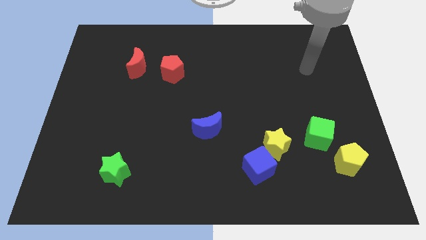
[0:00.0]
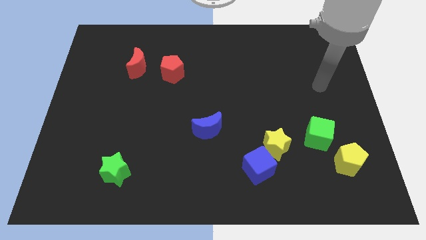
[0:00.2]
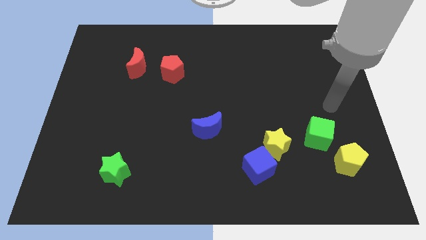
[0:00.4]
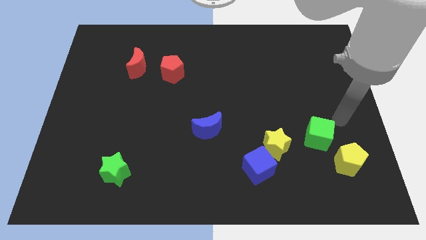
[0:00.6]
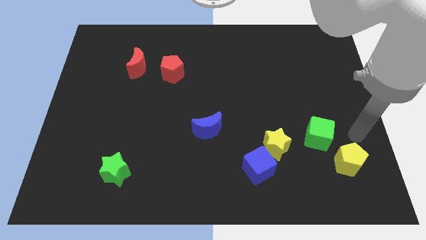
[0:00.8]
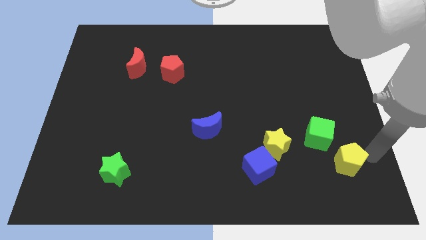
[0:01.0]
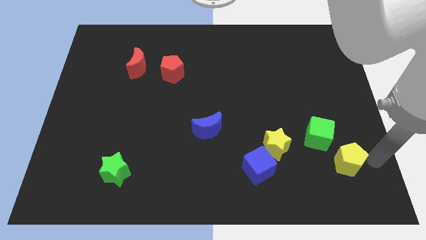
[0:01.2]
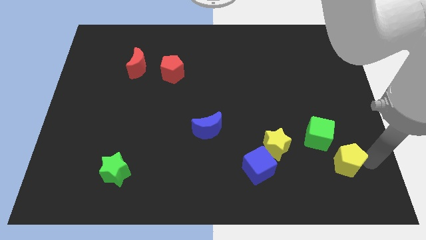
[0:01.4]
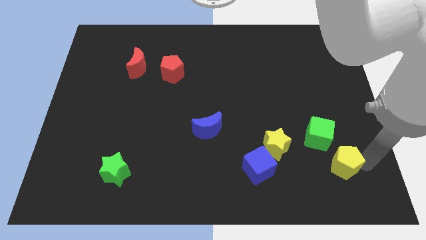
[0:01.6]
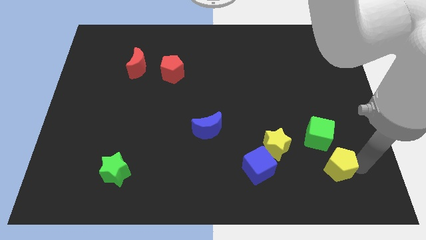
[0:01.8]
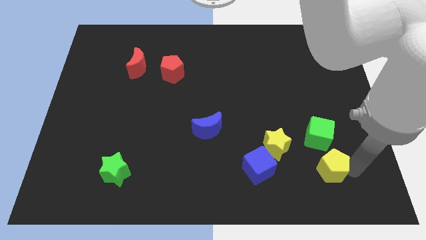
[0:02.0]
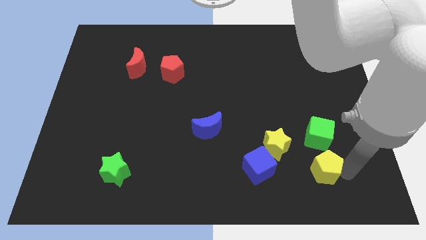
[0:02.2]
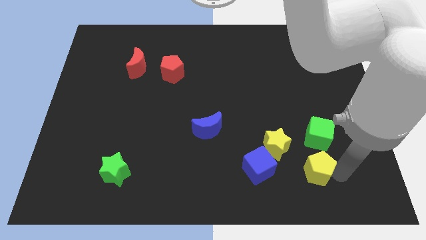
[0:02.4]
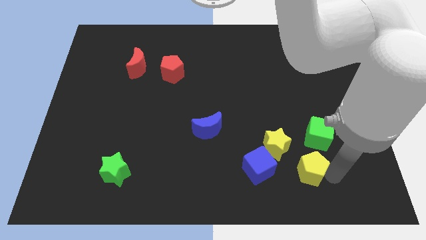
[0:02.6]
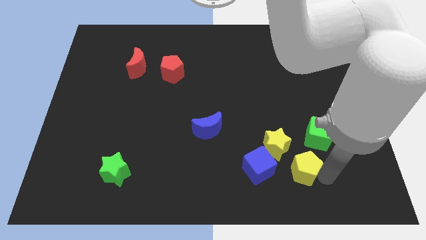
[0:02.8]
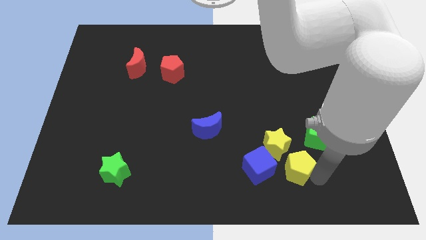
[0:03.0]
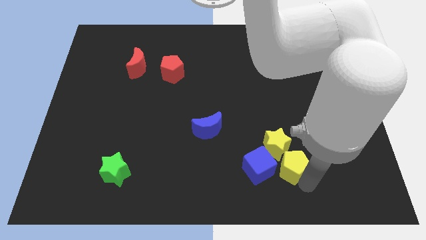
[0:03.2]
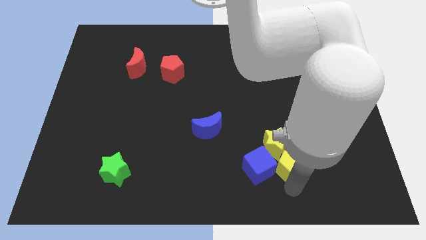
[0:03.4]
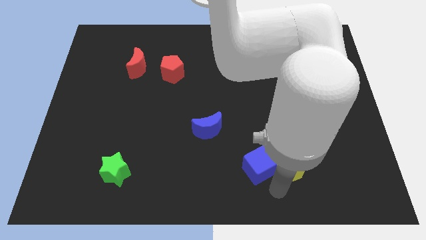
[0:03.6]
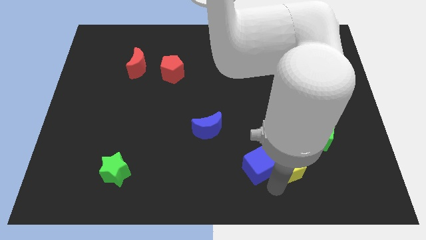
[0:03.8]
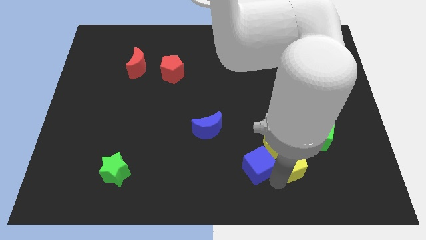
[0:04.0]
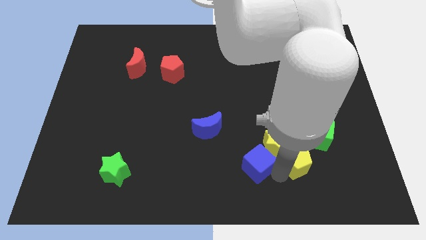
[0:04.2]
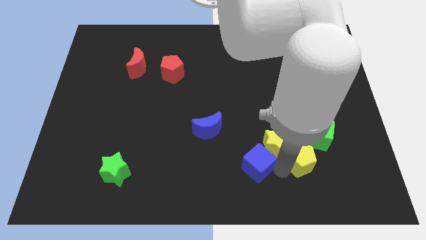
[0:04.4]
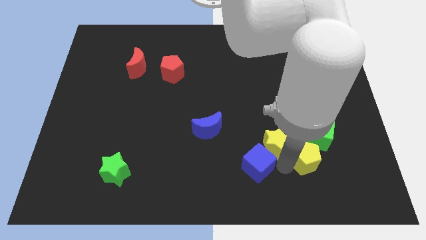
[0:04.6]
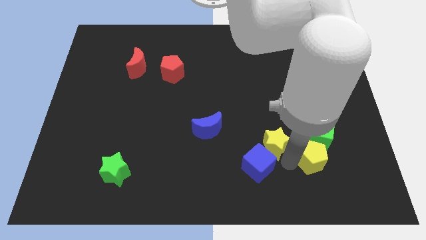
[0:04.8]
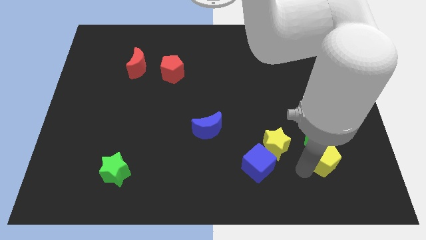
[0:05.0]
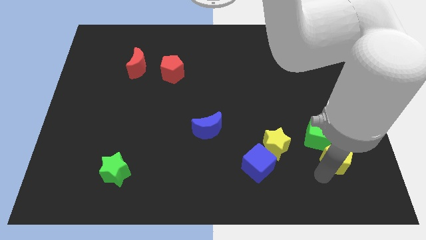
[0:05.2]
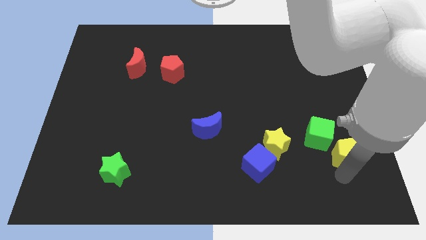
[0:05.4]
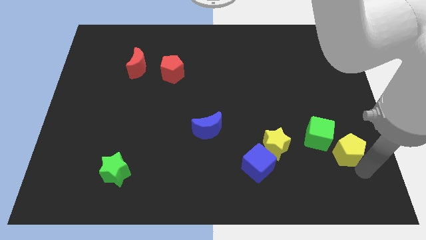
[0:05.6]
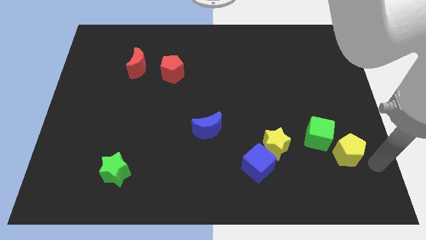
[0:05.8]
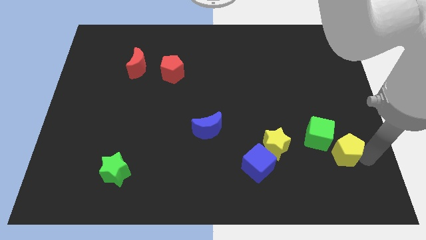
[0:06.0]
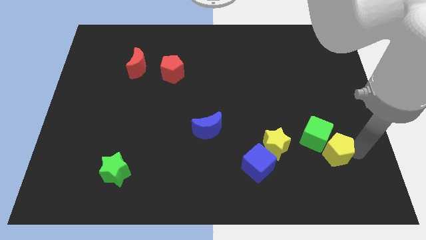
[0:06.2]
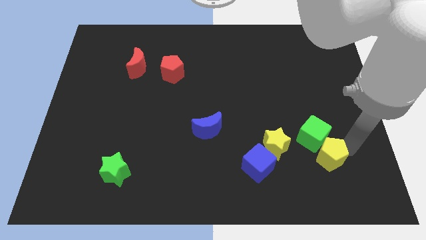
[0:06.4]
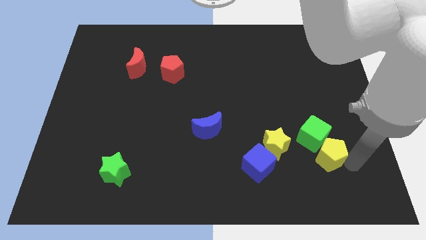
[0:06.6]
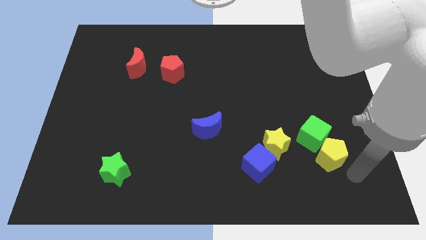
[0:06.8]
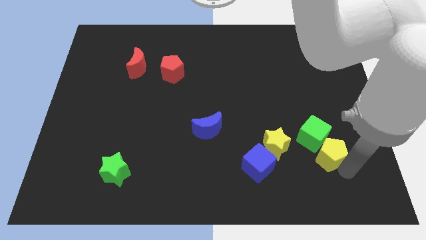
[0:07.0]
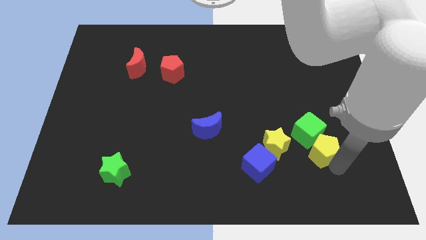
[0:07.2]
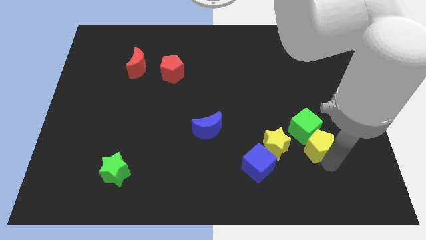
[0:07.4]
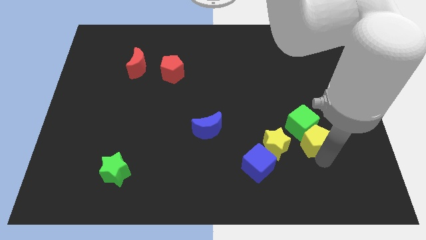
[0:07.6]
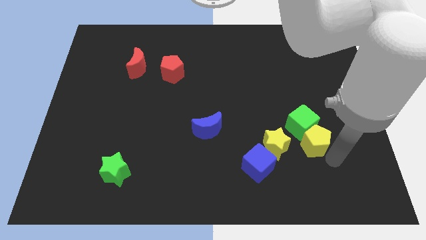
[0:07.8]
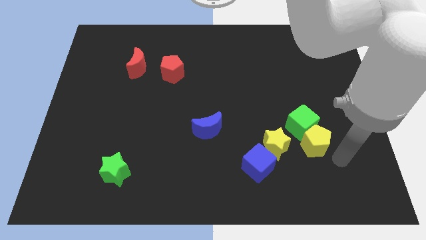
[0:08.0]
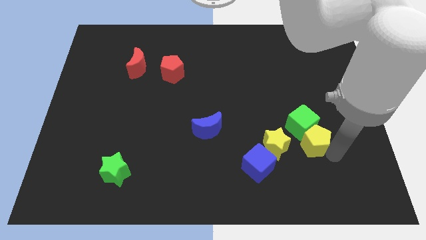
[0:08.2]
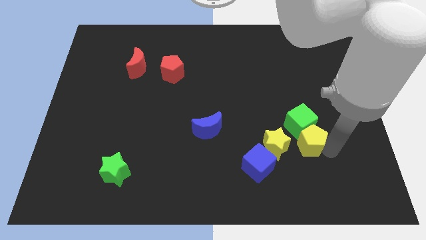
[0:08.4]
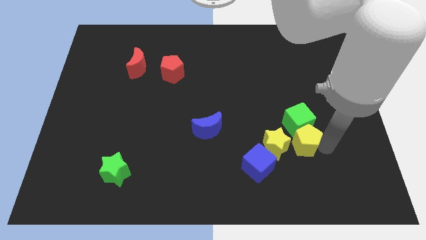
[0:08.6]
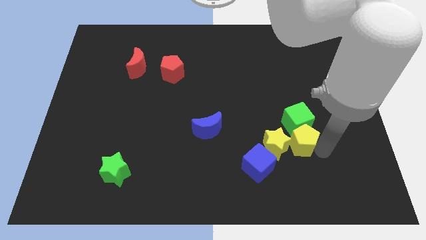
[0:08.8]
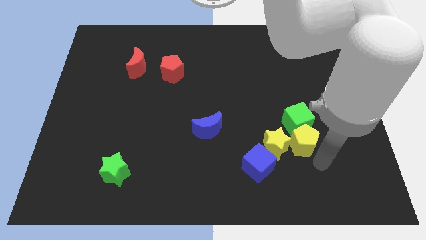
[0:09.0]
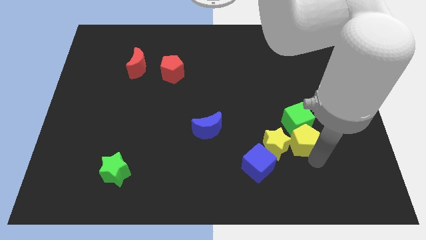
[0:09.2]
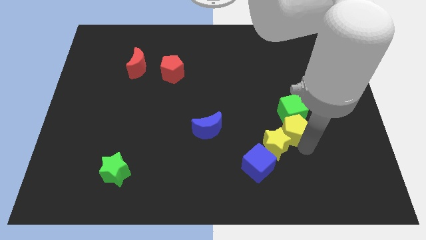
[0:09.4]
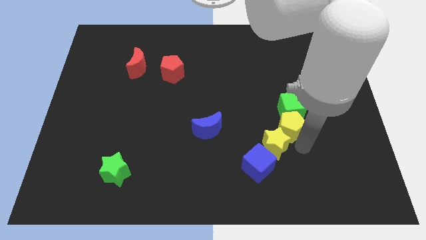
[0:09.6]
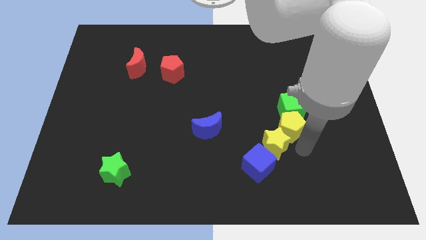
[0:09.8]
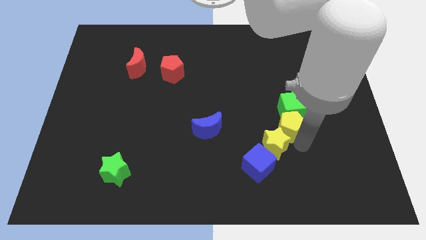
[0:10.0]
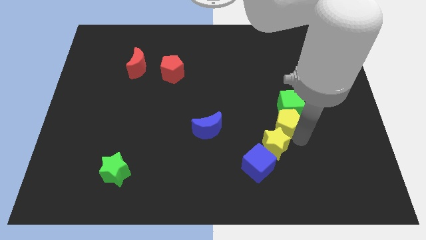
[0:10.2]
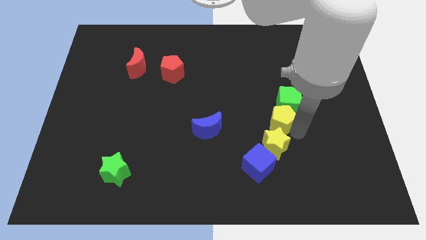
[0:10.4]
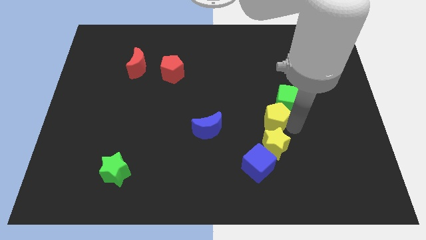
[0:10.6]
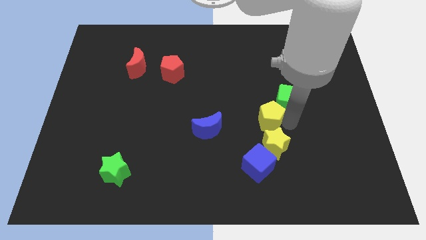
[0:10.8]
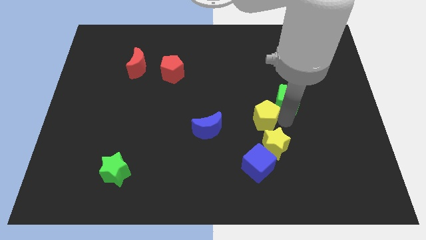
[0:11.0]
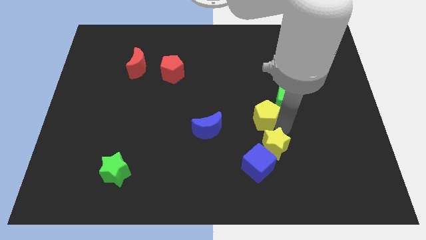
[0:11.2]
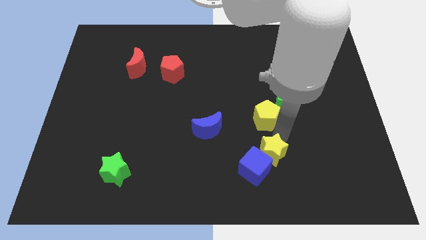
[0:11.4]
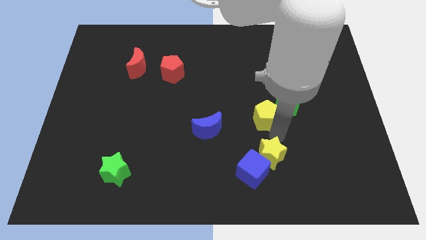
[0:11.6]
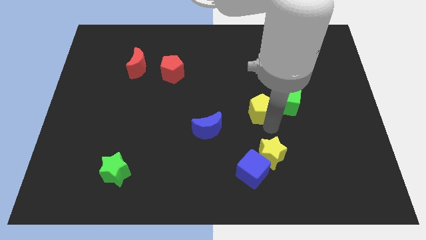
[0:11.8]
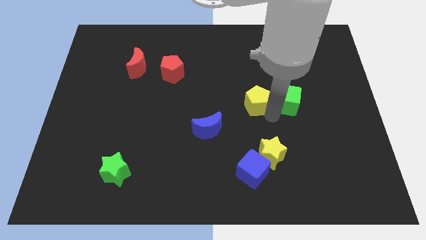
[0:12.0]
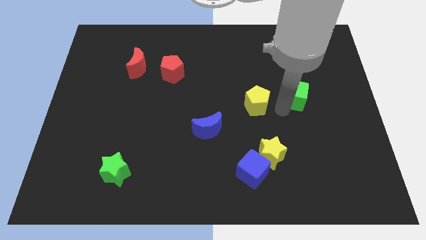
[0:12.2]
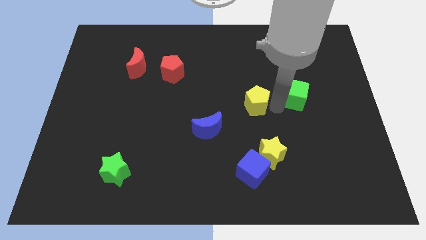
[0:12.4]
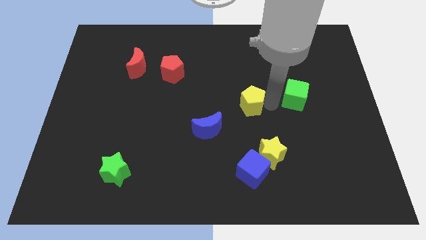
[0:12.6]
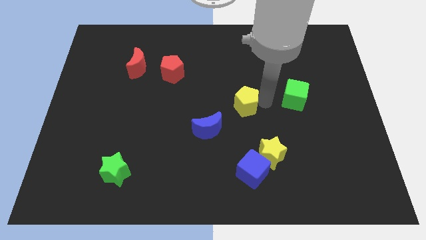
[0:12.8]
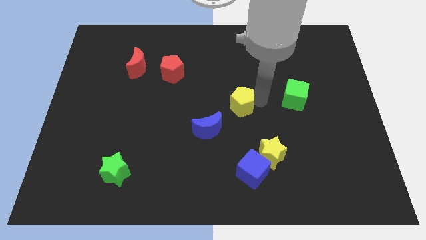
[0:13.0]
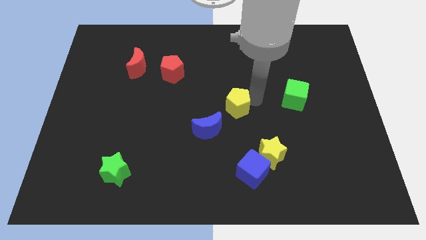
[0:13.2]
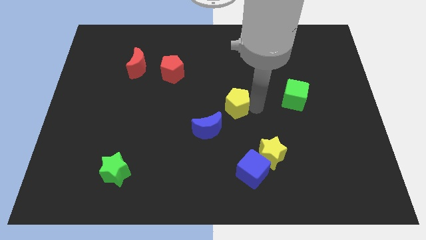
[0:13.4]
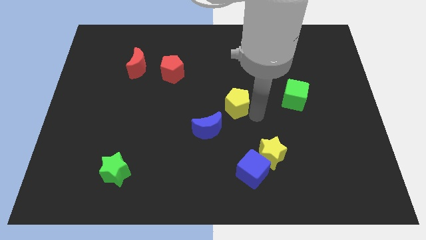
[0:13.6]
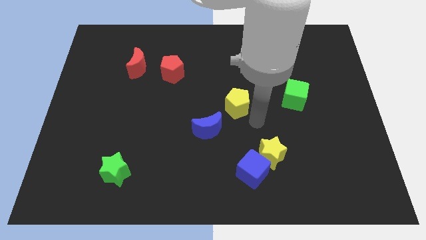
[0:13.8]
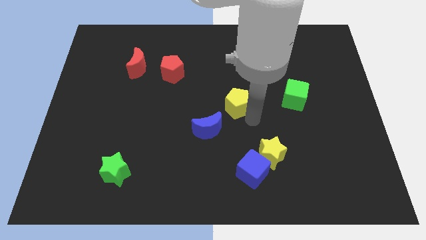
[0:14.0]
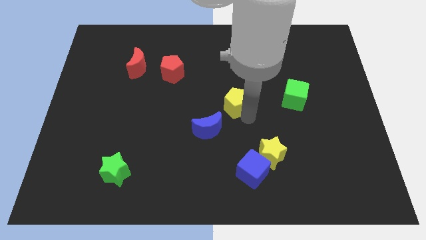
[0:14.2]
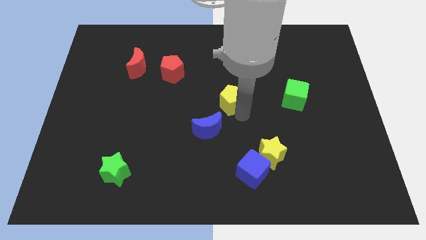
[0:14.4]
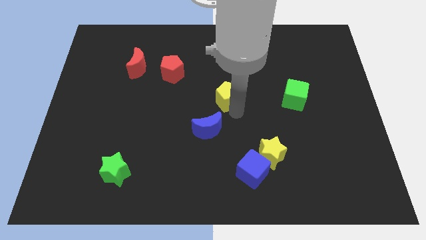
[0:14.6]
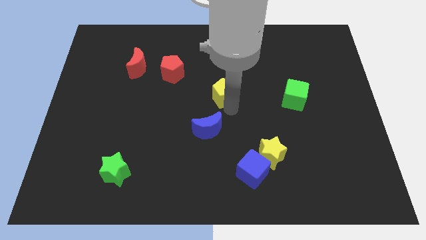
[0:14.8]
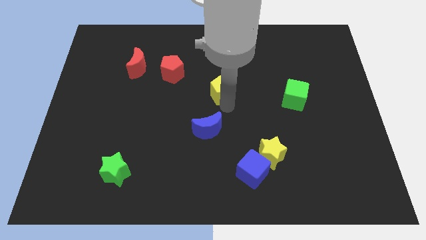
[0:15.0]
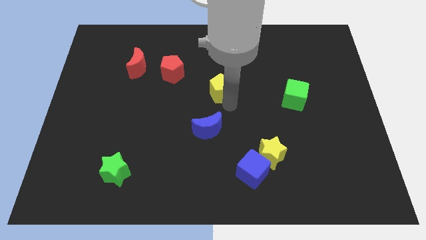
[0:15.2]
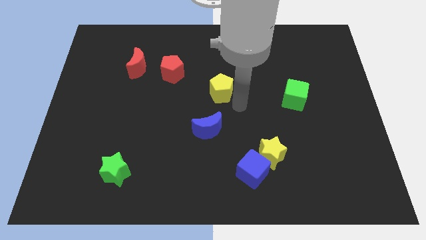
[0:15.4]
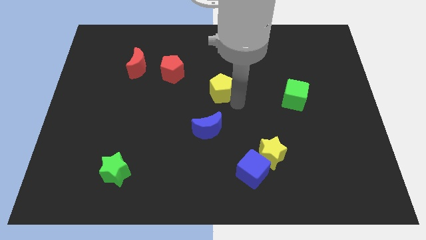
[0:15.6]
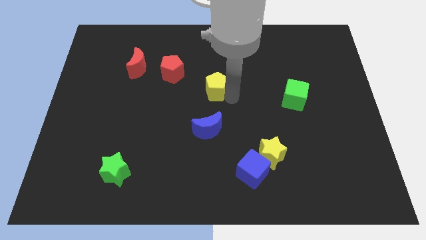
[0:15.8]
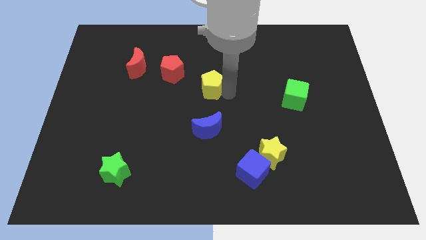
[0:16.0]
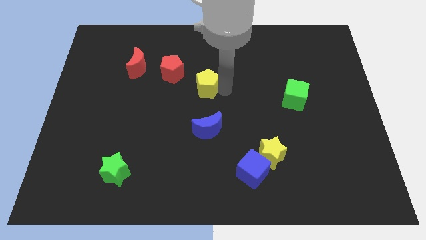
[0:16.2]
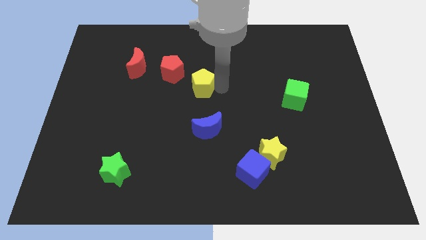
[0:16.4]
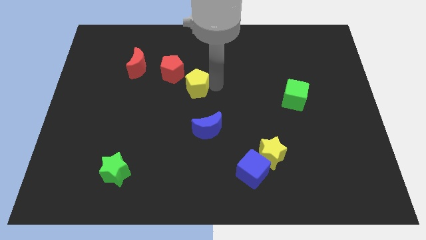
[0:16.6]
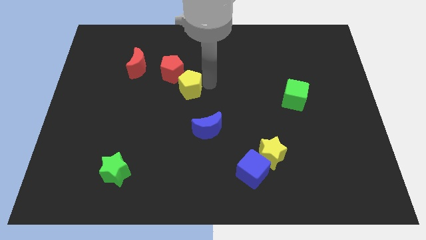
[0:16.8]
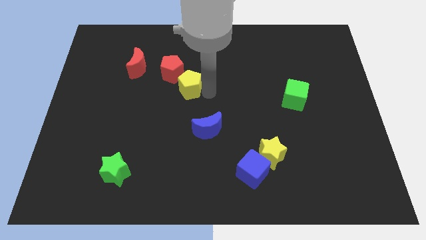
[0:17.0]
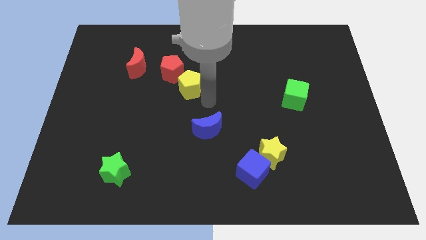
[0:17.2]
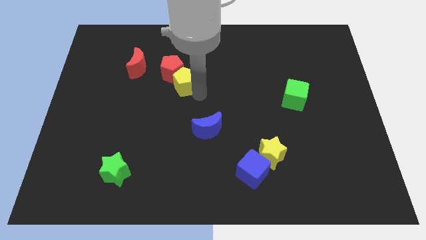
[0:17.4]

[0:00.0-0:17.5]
put the yellow pentagon next to the red pentagon
